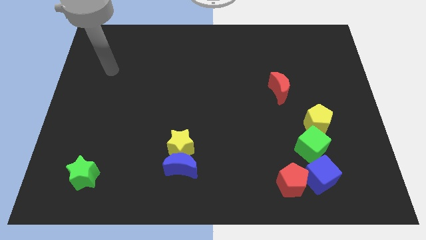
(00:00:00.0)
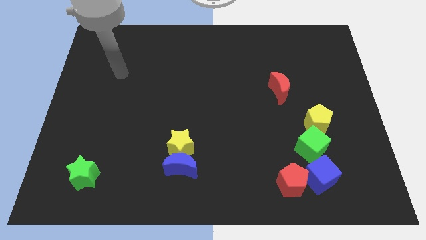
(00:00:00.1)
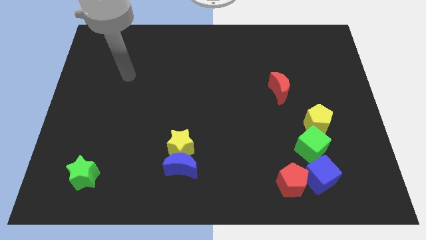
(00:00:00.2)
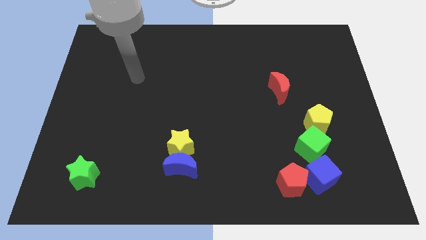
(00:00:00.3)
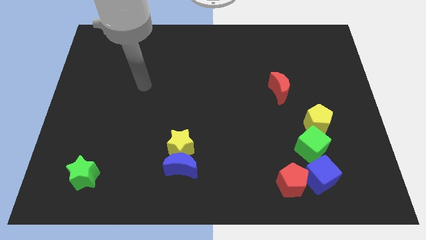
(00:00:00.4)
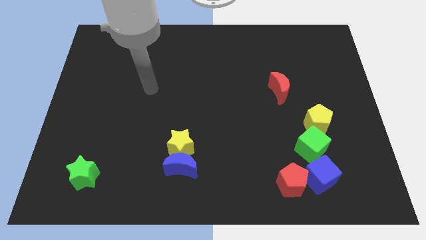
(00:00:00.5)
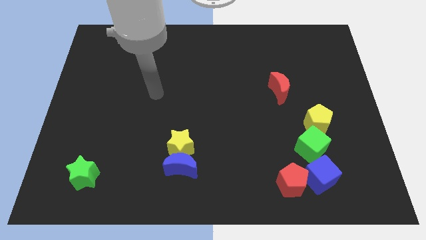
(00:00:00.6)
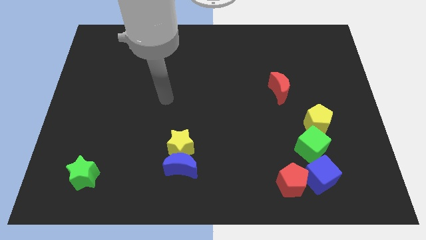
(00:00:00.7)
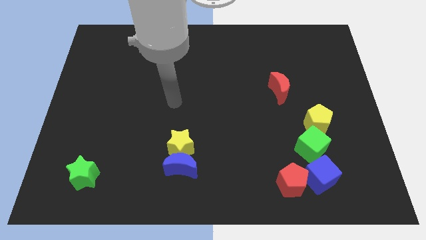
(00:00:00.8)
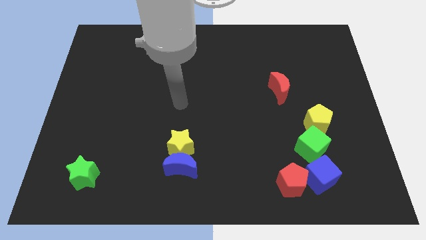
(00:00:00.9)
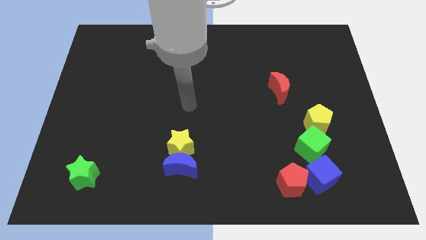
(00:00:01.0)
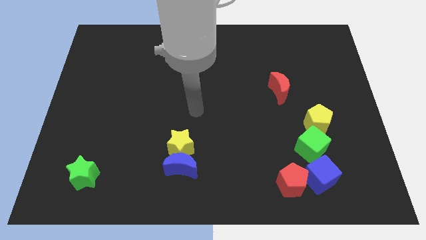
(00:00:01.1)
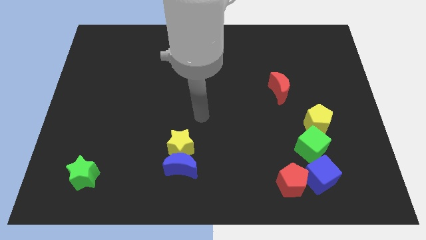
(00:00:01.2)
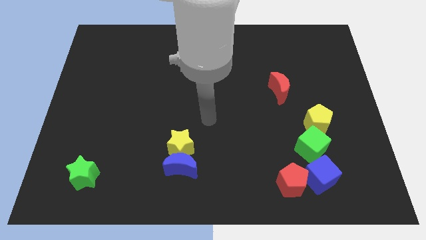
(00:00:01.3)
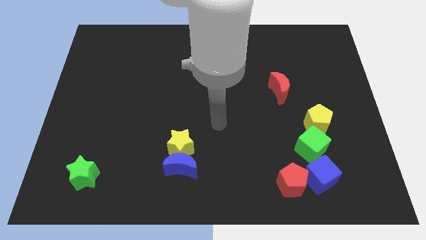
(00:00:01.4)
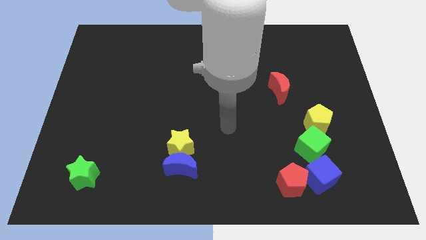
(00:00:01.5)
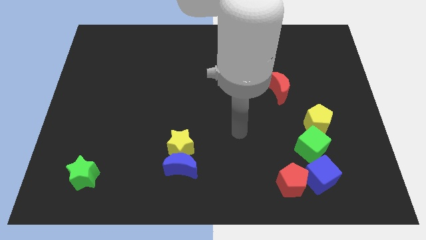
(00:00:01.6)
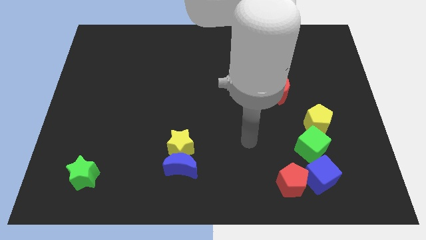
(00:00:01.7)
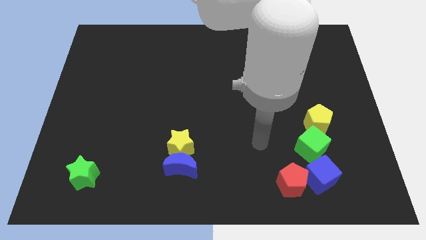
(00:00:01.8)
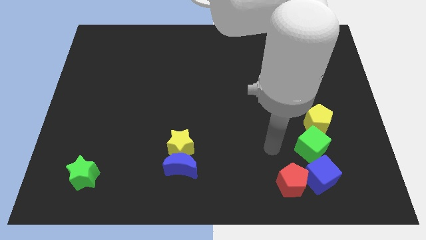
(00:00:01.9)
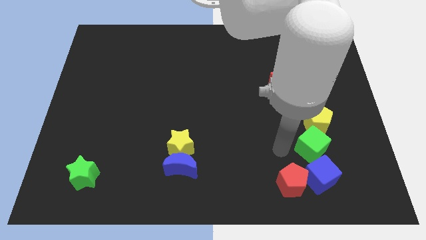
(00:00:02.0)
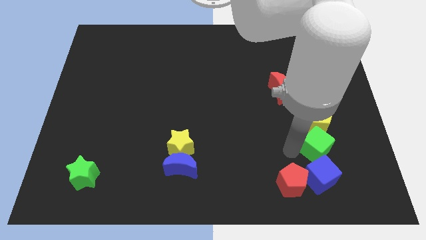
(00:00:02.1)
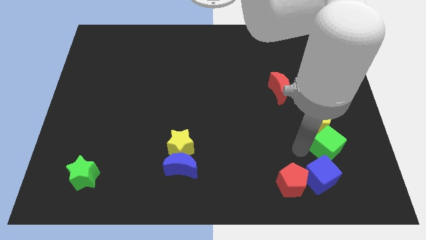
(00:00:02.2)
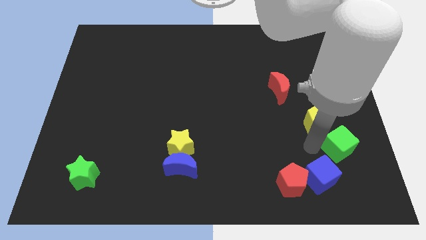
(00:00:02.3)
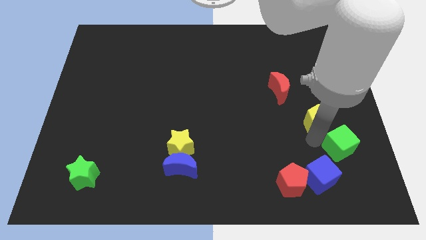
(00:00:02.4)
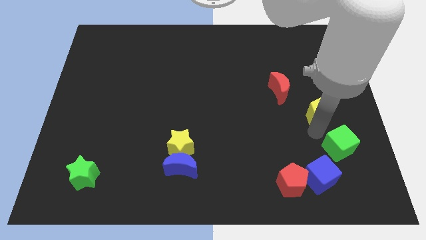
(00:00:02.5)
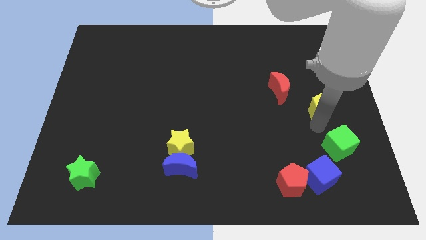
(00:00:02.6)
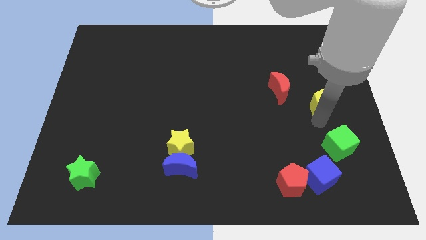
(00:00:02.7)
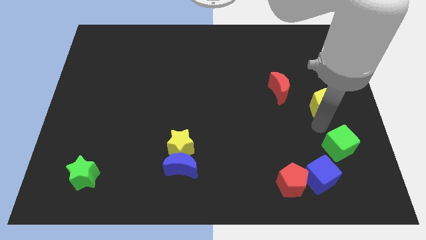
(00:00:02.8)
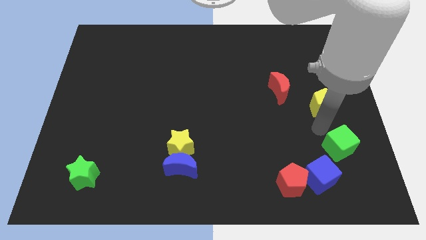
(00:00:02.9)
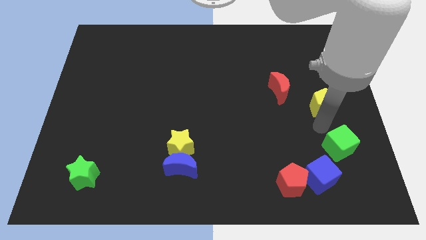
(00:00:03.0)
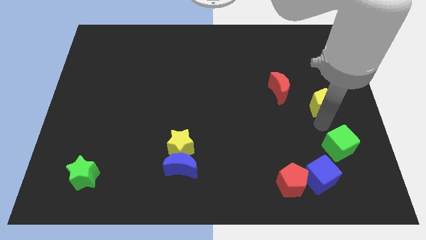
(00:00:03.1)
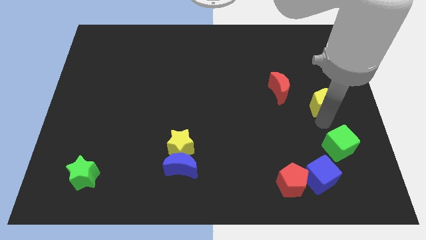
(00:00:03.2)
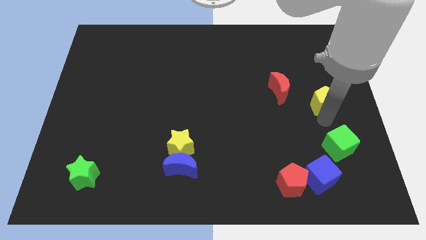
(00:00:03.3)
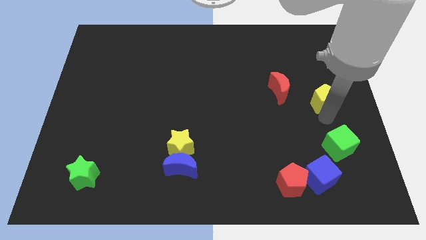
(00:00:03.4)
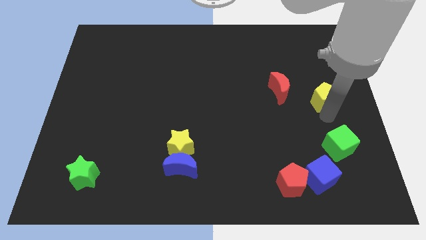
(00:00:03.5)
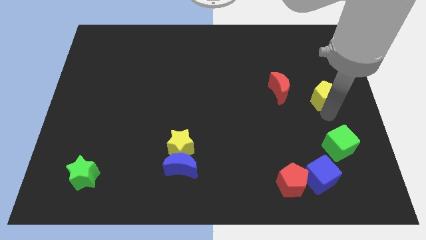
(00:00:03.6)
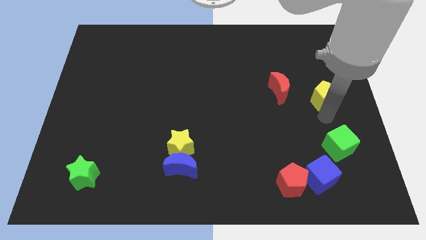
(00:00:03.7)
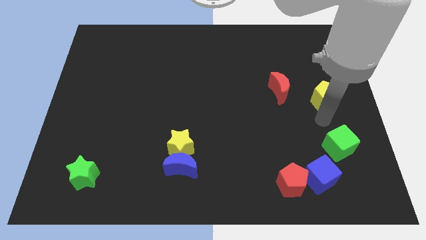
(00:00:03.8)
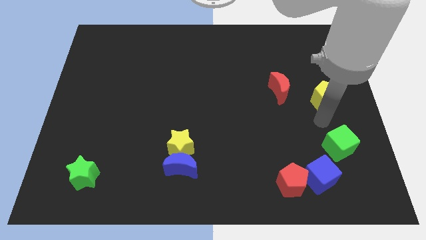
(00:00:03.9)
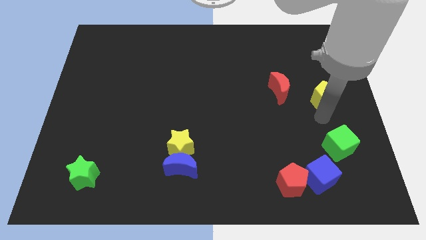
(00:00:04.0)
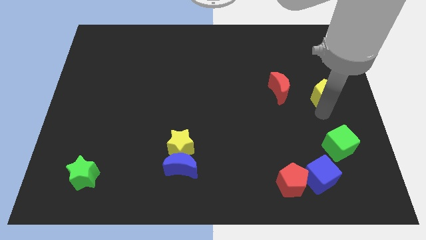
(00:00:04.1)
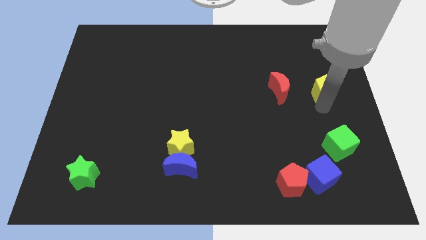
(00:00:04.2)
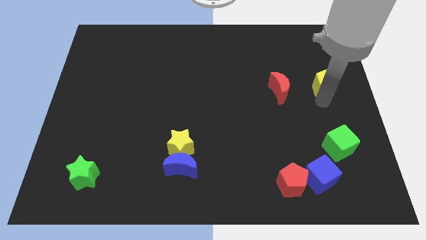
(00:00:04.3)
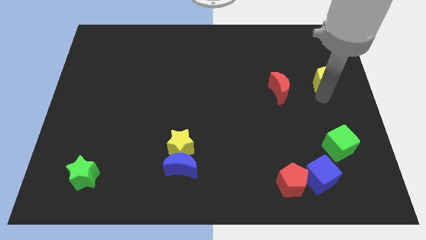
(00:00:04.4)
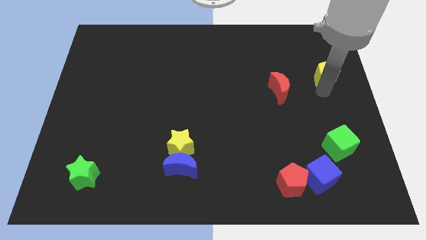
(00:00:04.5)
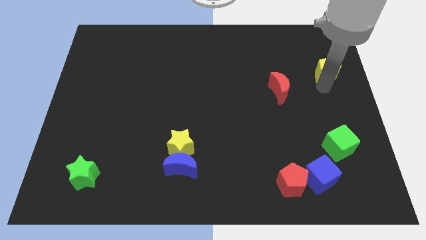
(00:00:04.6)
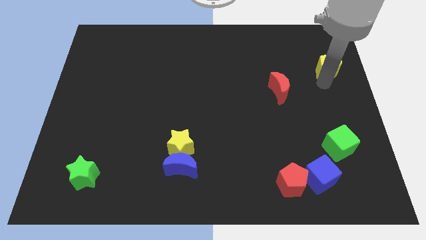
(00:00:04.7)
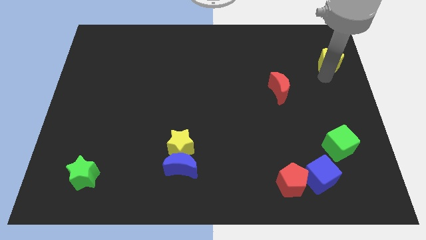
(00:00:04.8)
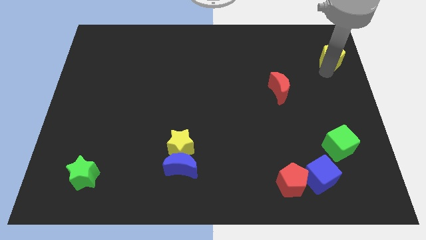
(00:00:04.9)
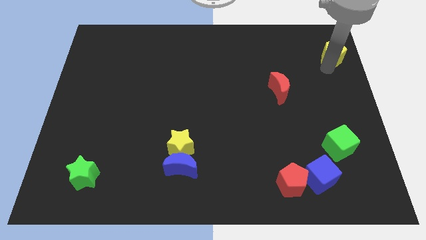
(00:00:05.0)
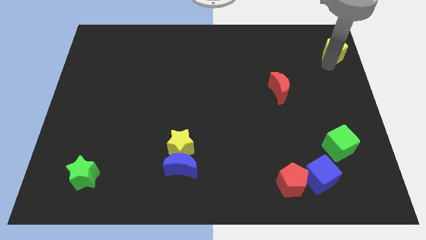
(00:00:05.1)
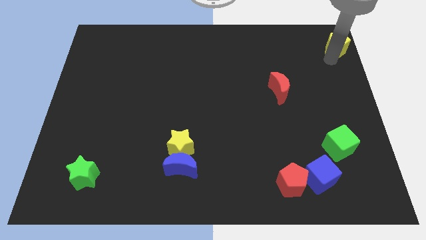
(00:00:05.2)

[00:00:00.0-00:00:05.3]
move the yellow pentagon to the top right corner

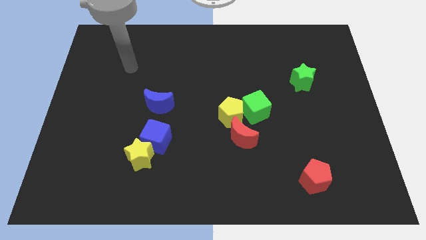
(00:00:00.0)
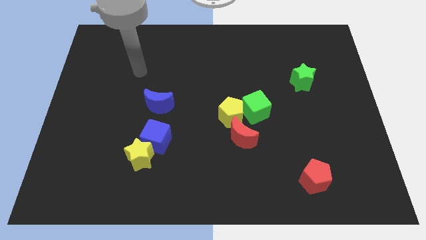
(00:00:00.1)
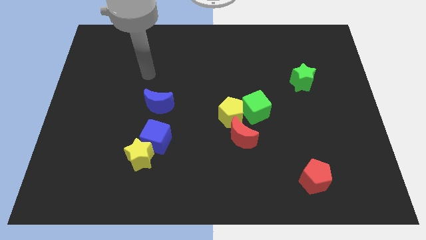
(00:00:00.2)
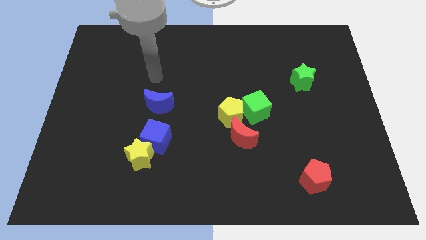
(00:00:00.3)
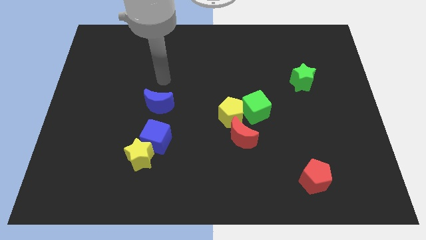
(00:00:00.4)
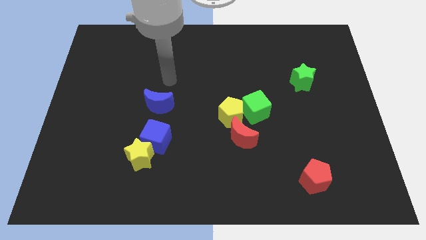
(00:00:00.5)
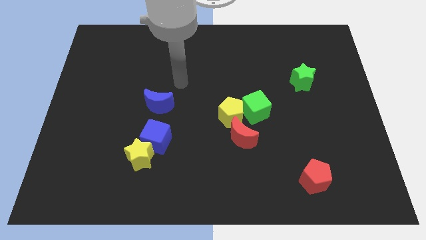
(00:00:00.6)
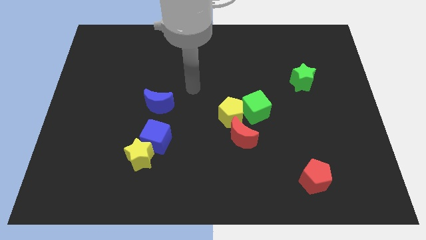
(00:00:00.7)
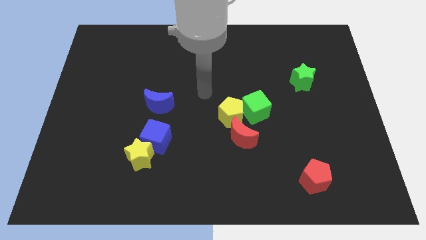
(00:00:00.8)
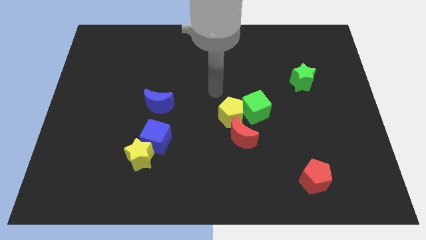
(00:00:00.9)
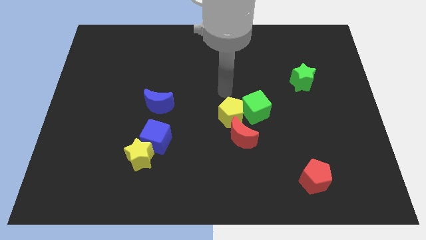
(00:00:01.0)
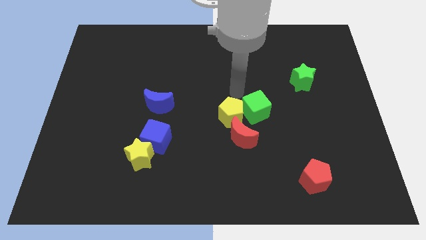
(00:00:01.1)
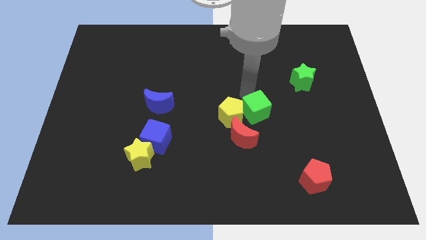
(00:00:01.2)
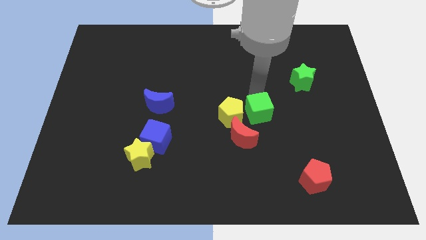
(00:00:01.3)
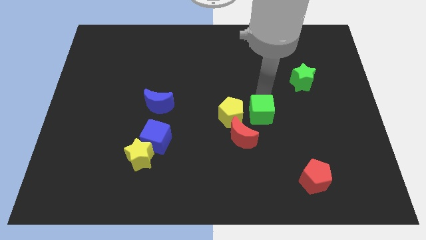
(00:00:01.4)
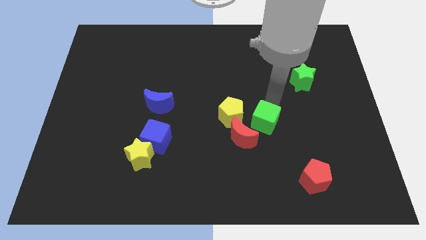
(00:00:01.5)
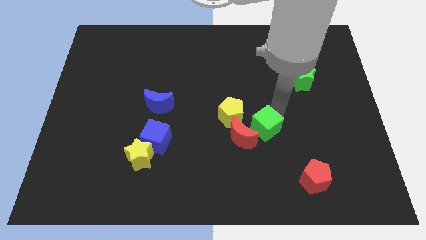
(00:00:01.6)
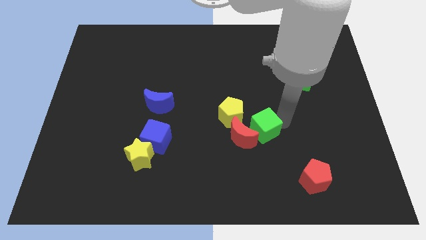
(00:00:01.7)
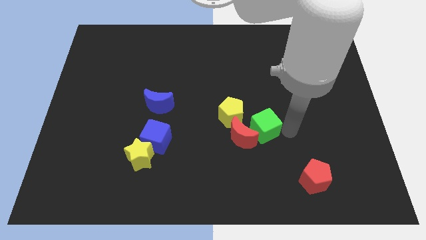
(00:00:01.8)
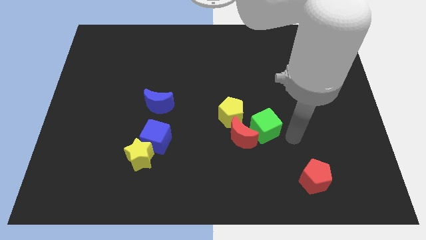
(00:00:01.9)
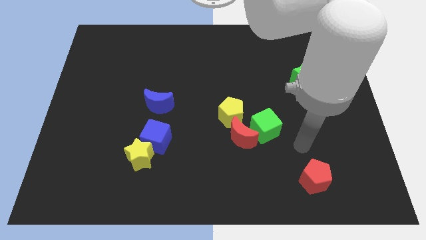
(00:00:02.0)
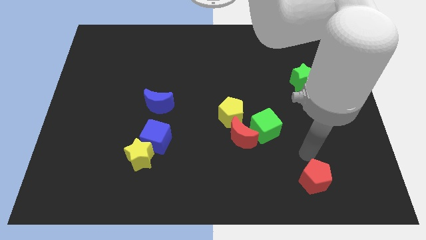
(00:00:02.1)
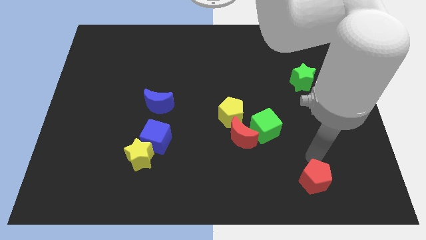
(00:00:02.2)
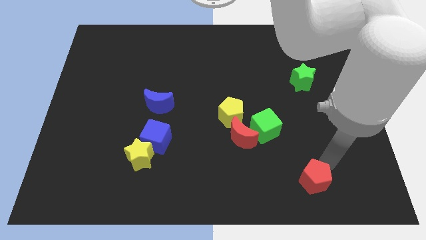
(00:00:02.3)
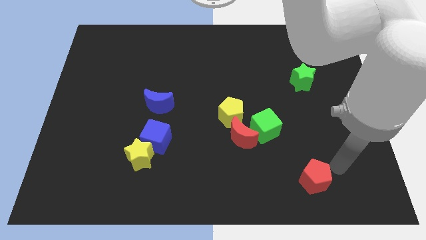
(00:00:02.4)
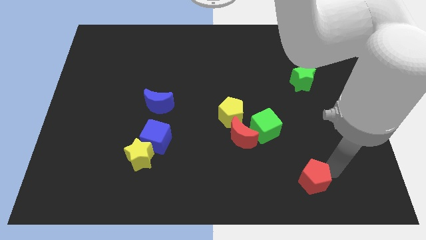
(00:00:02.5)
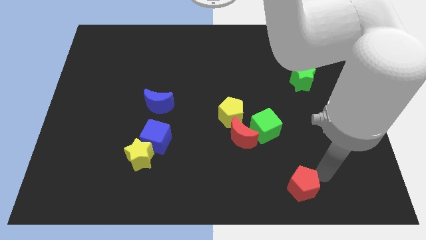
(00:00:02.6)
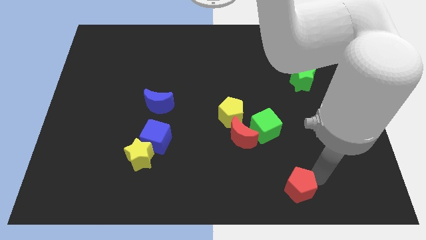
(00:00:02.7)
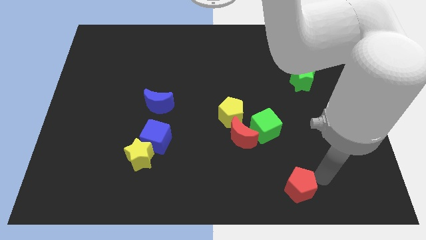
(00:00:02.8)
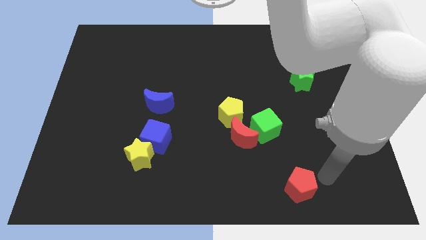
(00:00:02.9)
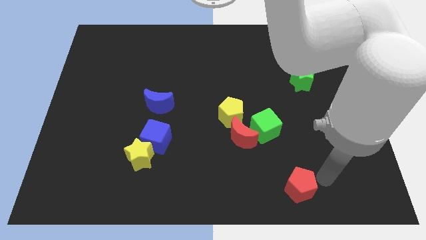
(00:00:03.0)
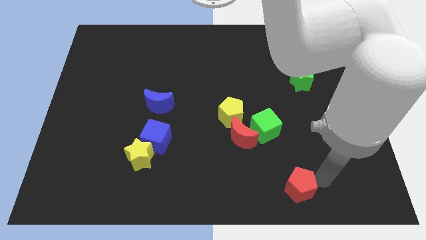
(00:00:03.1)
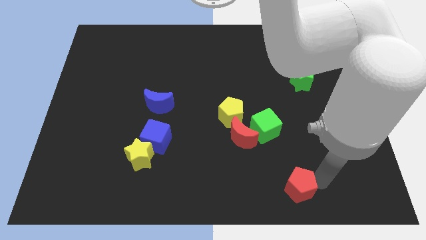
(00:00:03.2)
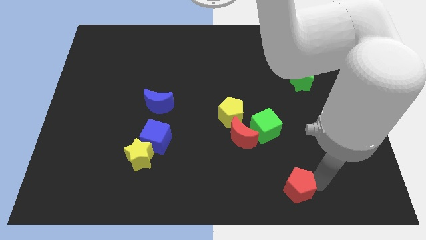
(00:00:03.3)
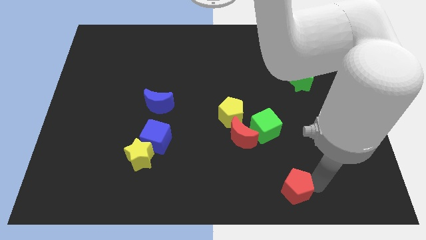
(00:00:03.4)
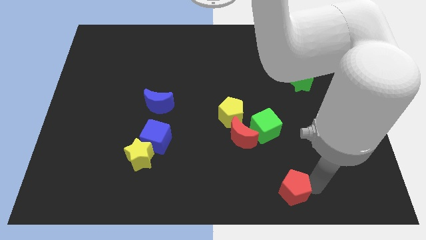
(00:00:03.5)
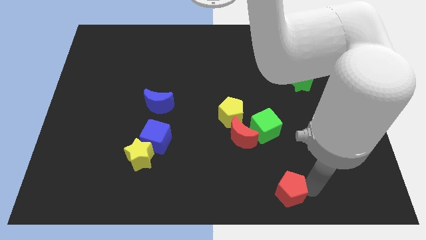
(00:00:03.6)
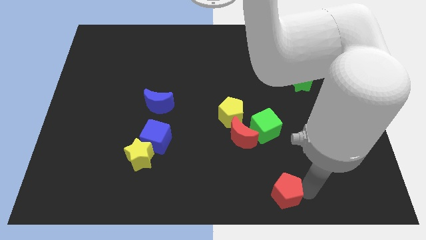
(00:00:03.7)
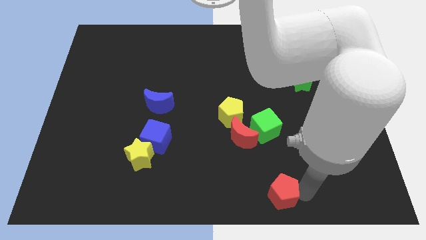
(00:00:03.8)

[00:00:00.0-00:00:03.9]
push the red pentagon to the bottom
